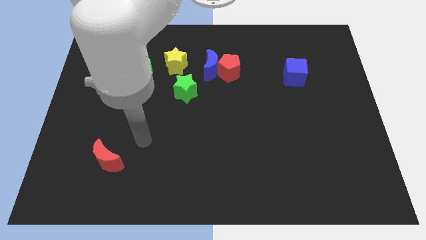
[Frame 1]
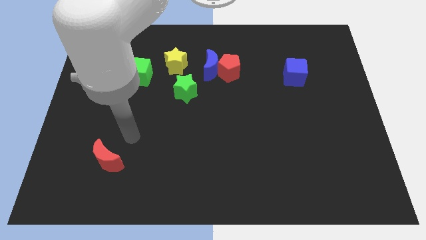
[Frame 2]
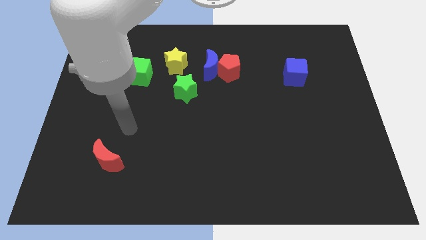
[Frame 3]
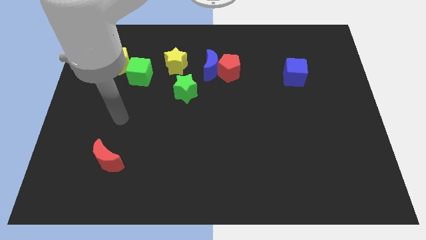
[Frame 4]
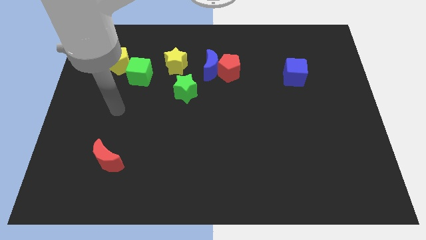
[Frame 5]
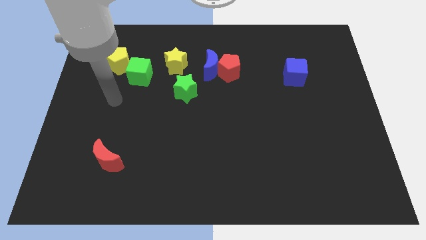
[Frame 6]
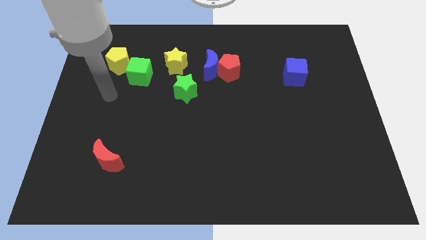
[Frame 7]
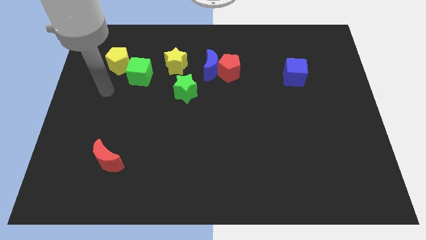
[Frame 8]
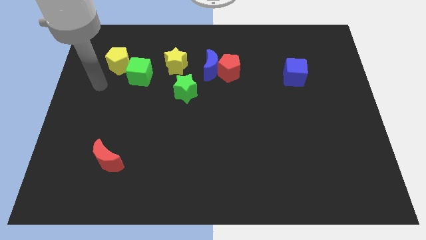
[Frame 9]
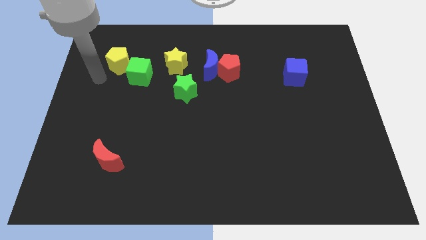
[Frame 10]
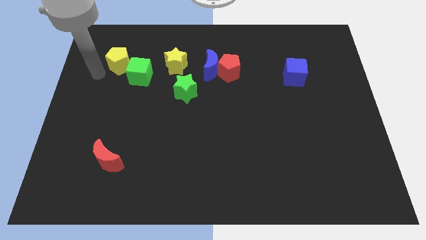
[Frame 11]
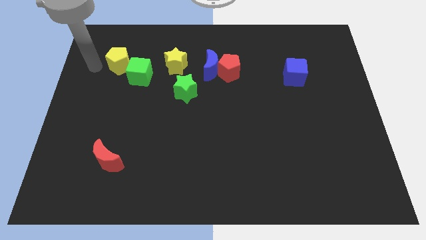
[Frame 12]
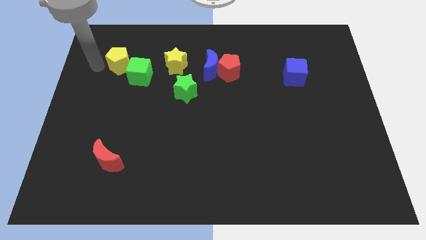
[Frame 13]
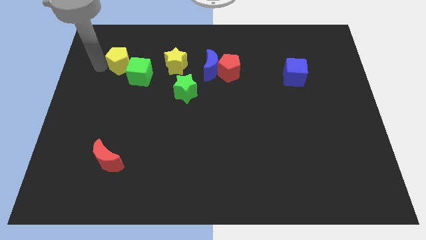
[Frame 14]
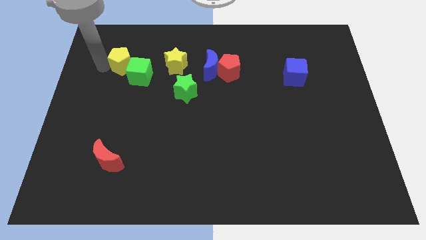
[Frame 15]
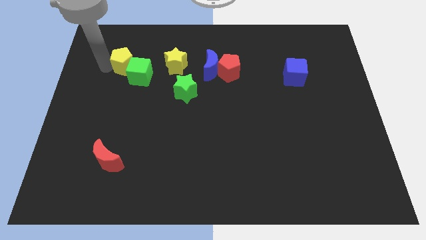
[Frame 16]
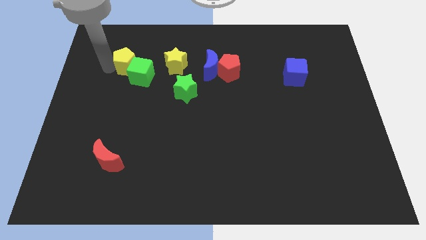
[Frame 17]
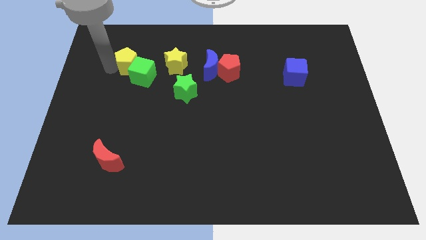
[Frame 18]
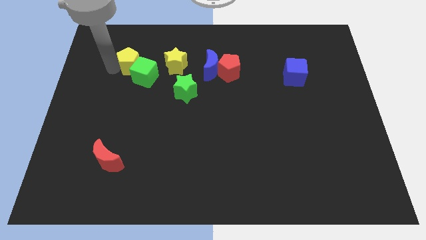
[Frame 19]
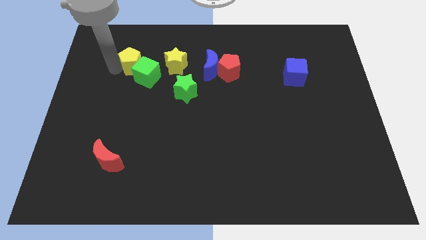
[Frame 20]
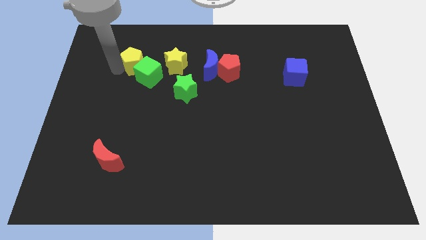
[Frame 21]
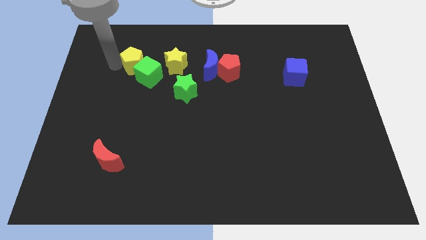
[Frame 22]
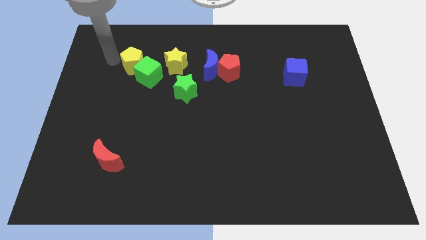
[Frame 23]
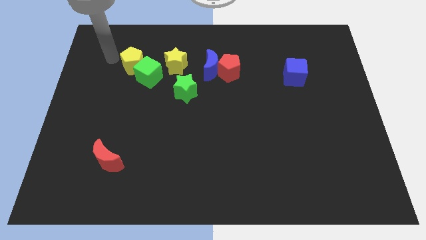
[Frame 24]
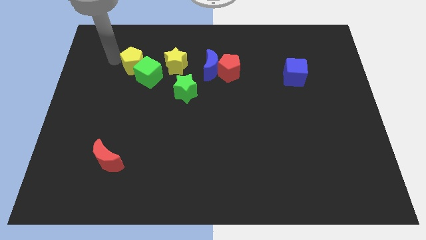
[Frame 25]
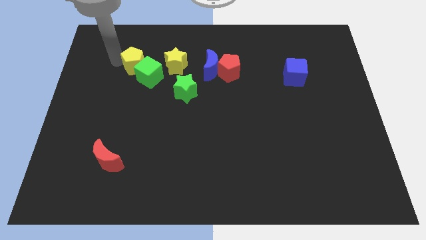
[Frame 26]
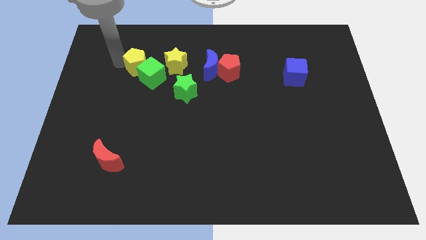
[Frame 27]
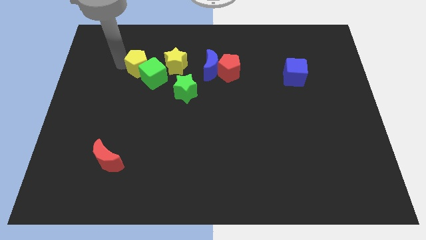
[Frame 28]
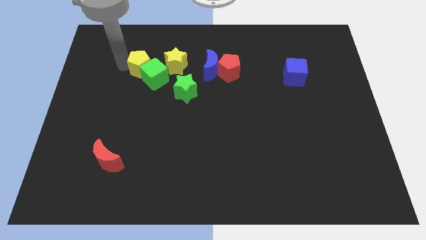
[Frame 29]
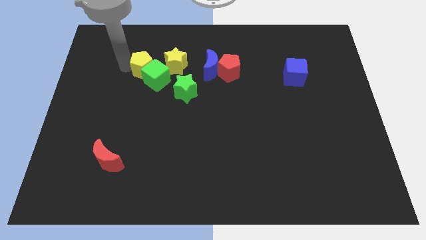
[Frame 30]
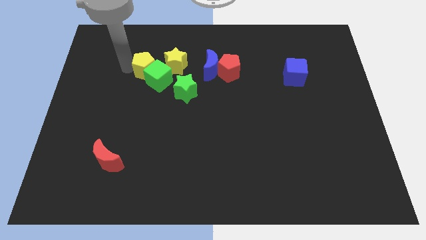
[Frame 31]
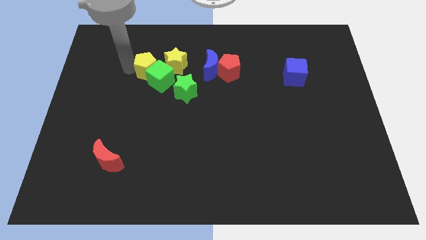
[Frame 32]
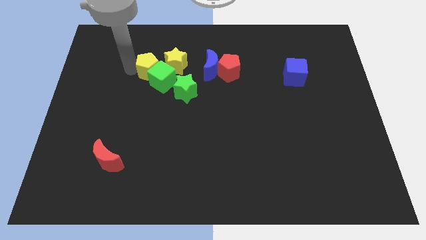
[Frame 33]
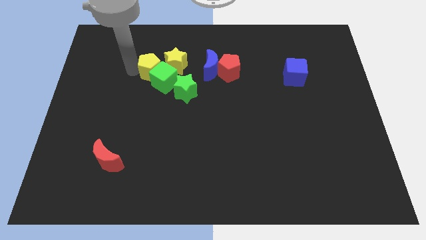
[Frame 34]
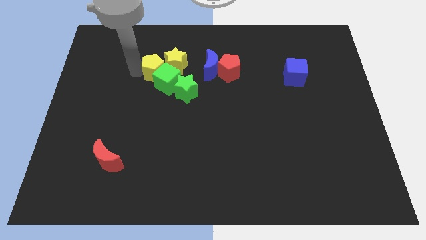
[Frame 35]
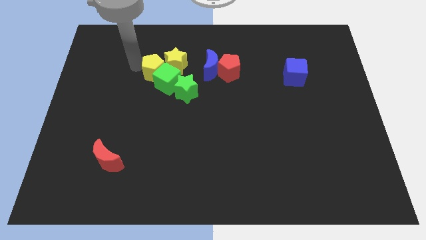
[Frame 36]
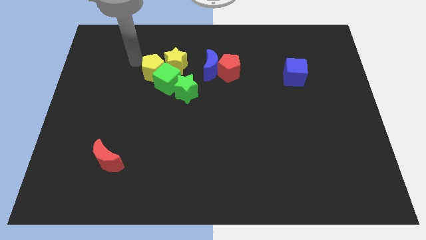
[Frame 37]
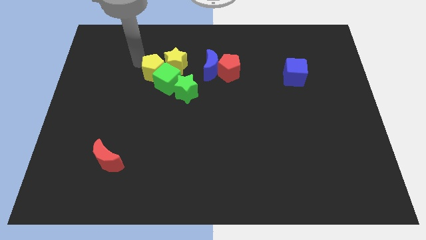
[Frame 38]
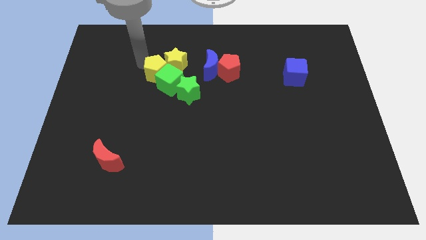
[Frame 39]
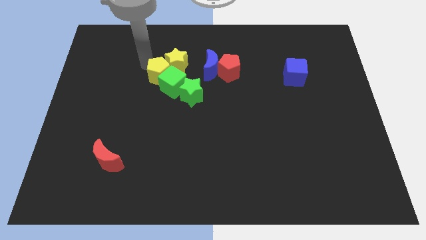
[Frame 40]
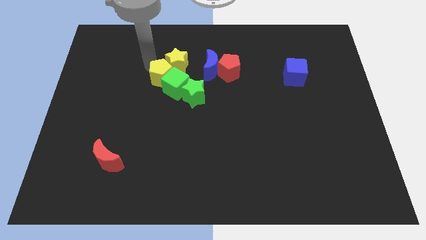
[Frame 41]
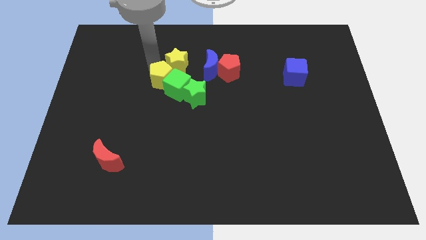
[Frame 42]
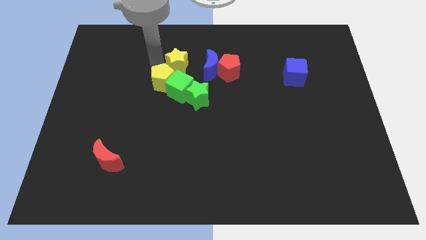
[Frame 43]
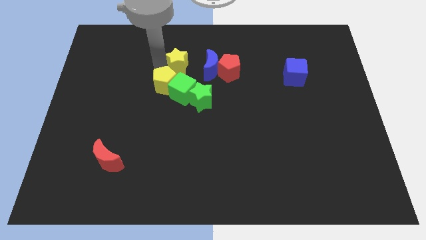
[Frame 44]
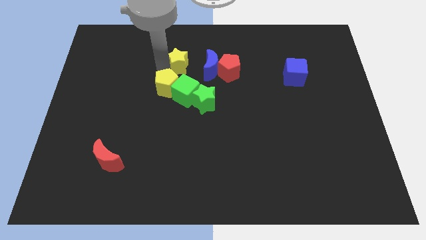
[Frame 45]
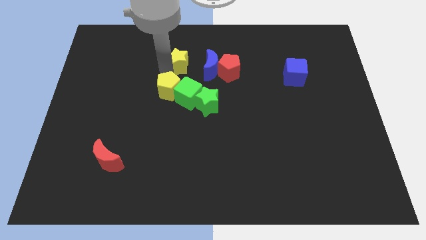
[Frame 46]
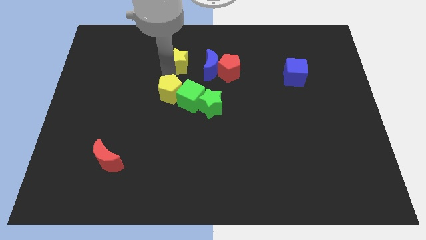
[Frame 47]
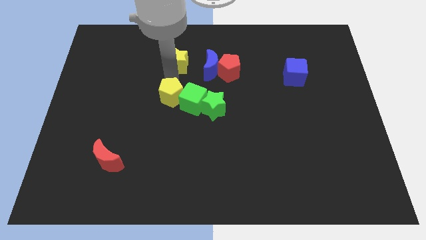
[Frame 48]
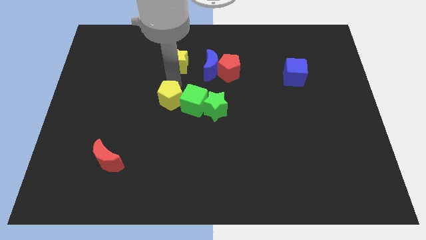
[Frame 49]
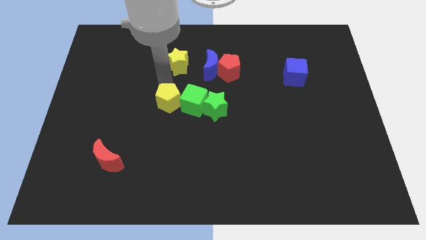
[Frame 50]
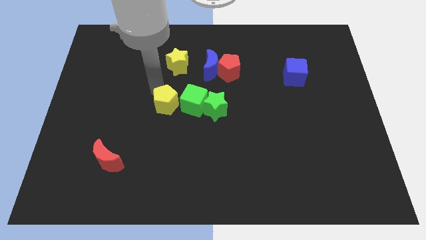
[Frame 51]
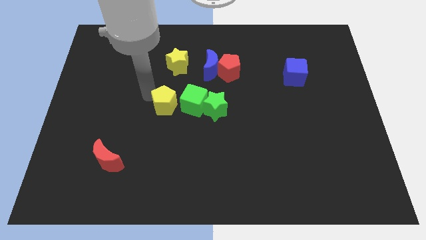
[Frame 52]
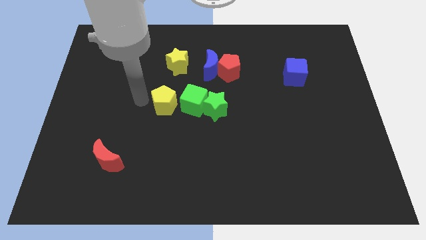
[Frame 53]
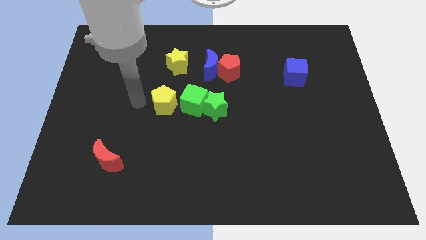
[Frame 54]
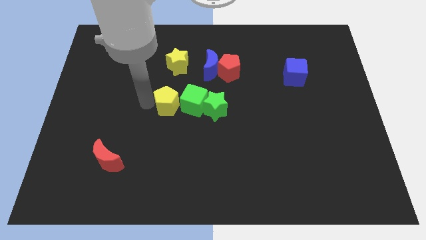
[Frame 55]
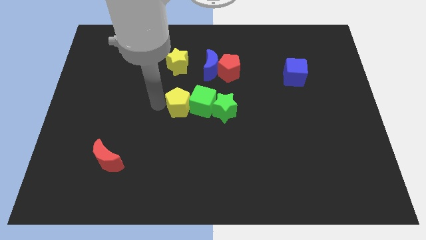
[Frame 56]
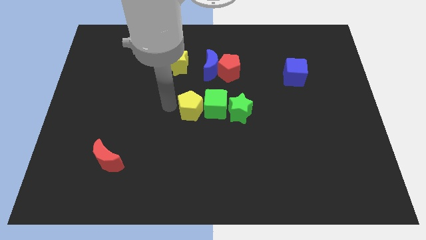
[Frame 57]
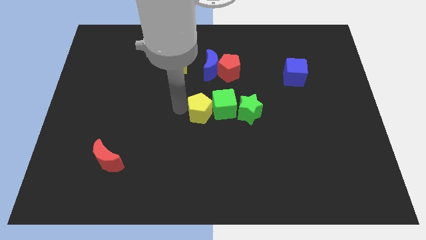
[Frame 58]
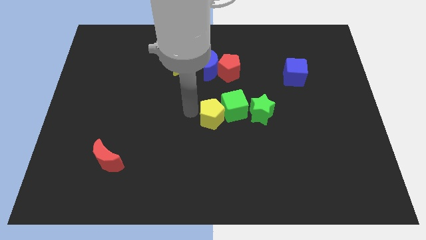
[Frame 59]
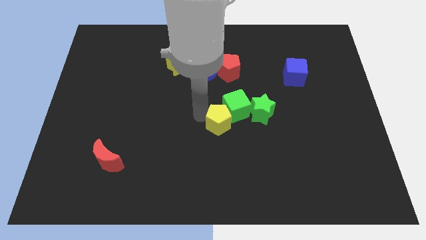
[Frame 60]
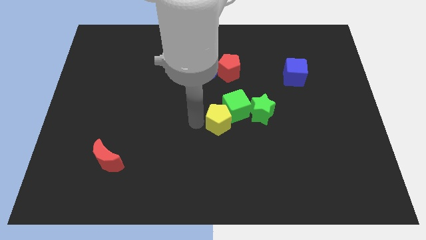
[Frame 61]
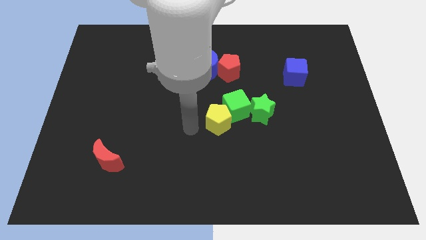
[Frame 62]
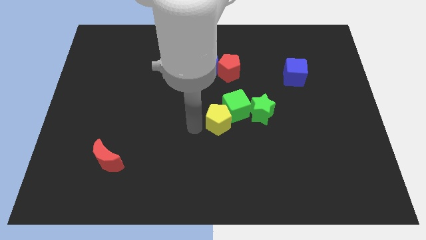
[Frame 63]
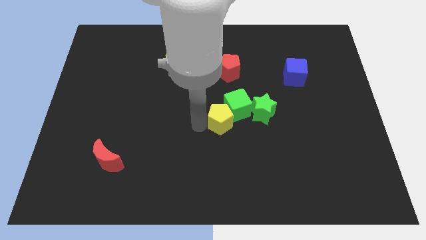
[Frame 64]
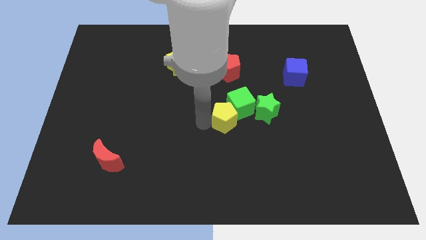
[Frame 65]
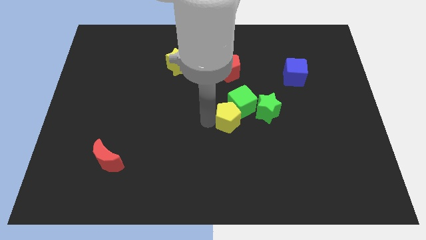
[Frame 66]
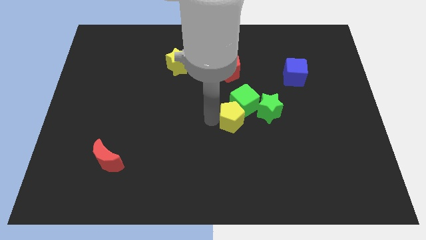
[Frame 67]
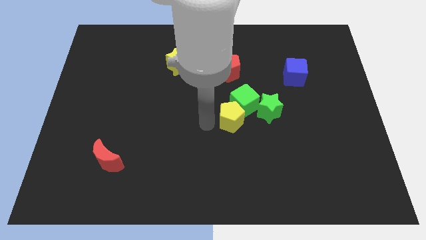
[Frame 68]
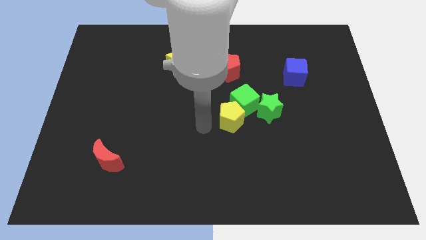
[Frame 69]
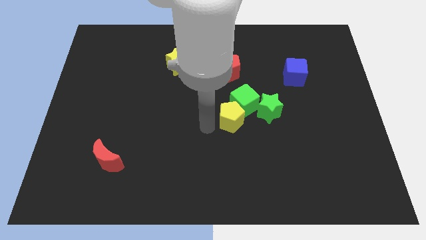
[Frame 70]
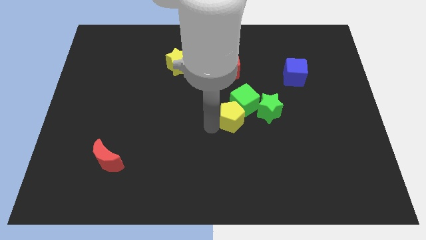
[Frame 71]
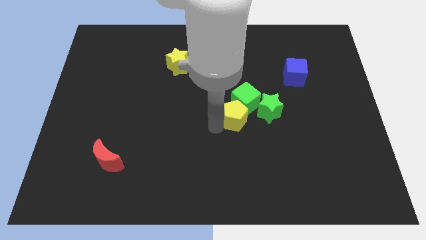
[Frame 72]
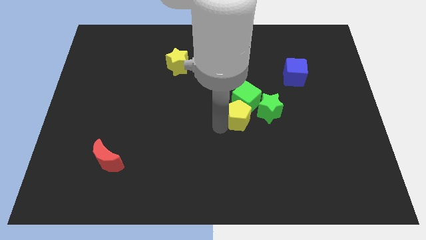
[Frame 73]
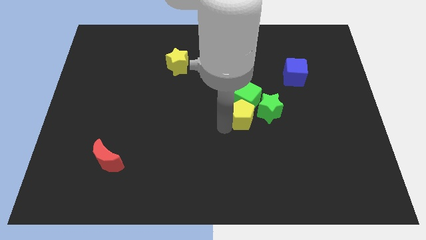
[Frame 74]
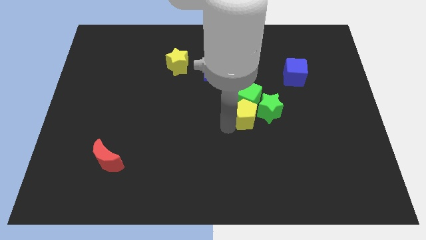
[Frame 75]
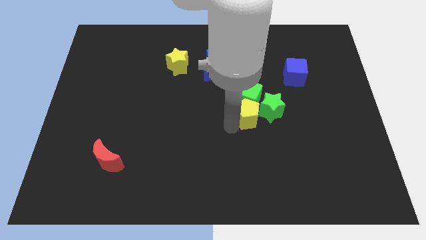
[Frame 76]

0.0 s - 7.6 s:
move the yellow pentagon next to the green star
